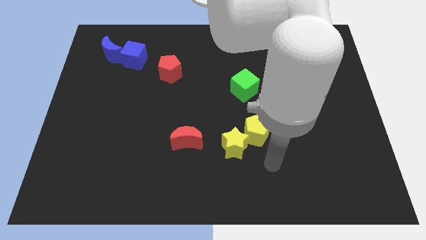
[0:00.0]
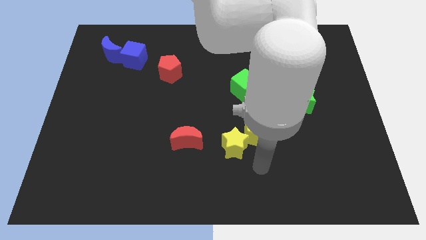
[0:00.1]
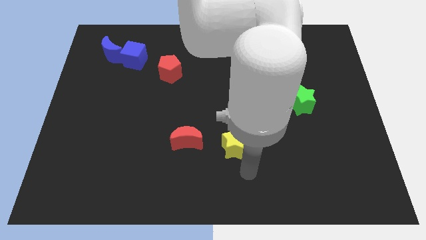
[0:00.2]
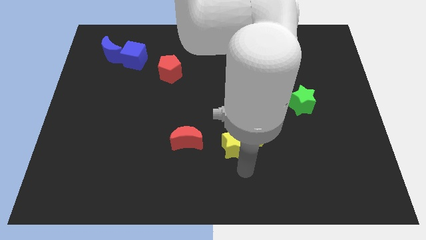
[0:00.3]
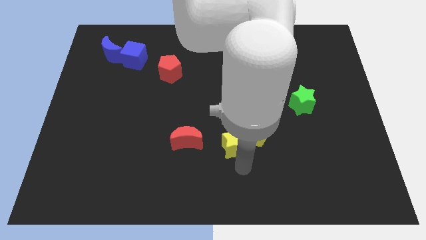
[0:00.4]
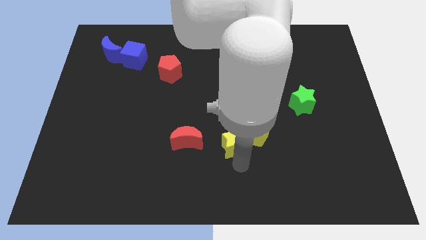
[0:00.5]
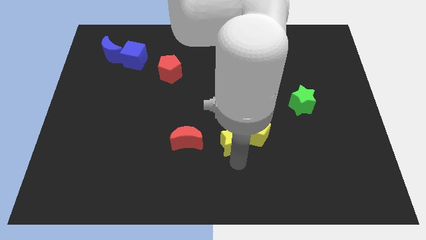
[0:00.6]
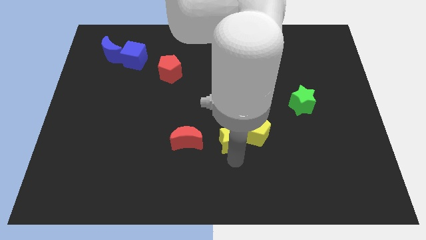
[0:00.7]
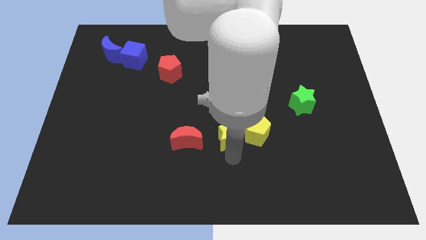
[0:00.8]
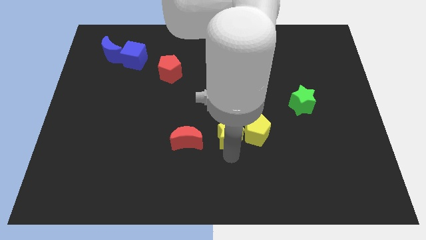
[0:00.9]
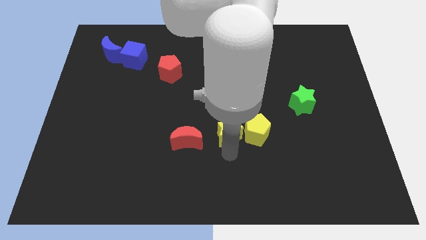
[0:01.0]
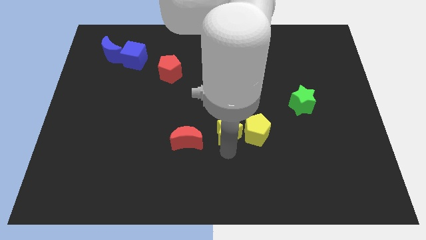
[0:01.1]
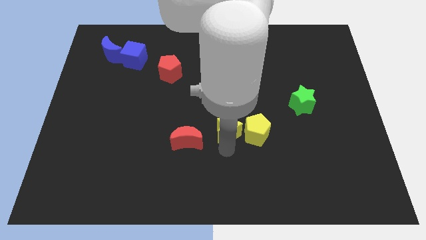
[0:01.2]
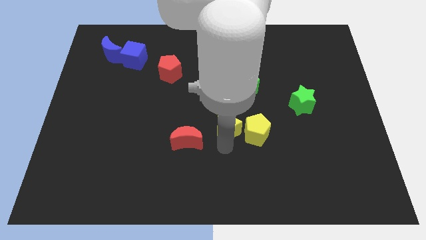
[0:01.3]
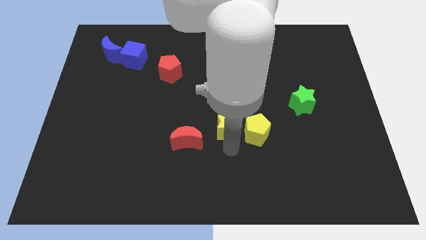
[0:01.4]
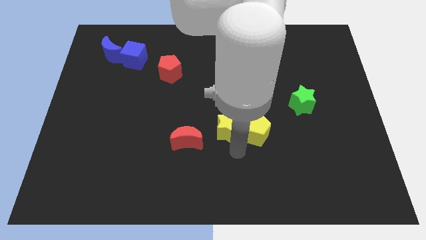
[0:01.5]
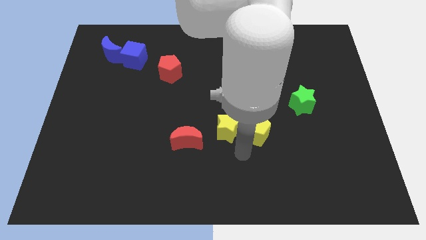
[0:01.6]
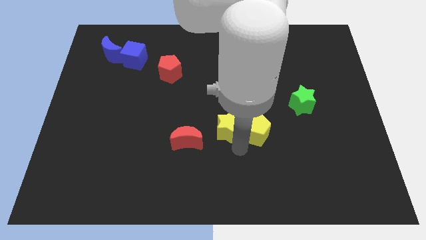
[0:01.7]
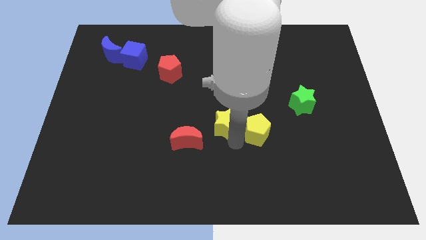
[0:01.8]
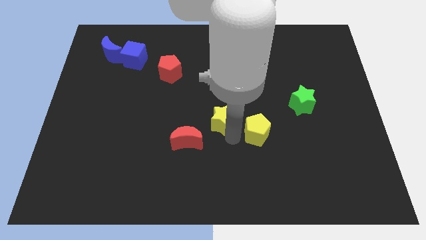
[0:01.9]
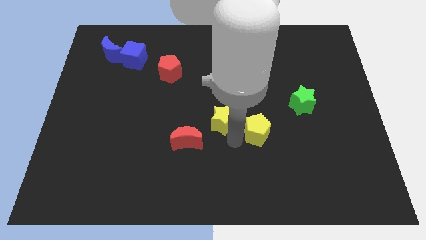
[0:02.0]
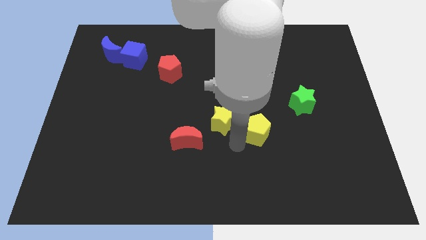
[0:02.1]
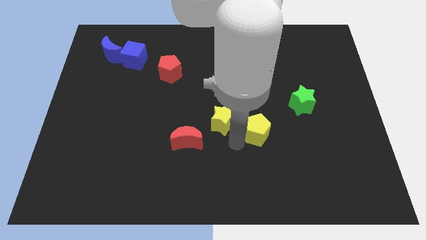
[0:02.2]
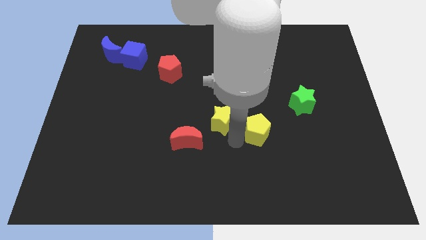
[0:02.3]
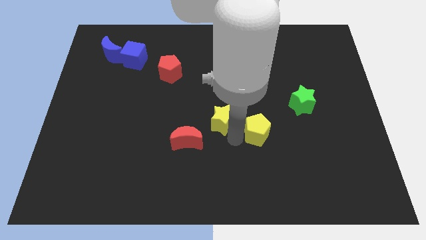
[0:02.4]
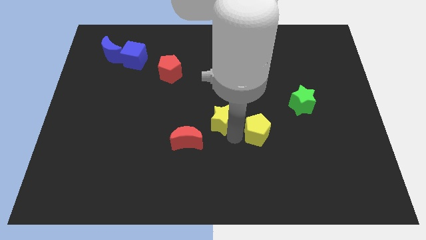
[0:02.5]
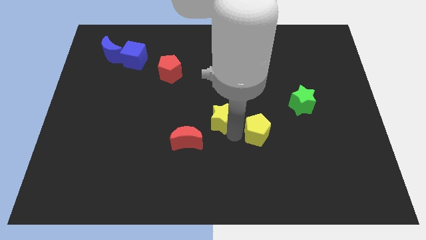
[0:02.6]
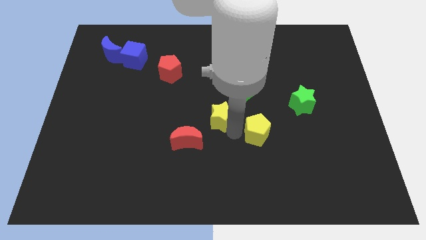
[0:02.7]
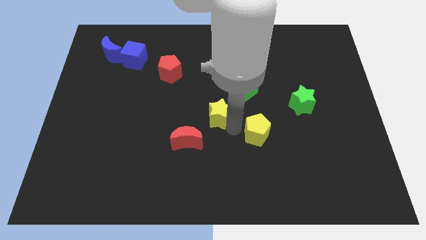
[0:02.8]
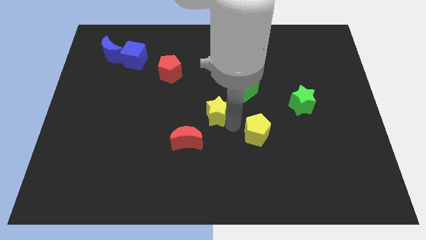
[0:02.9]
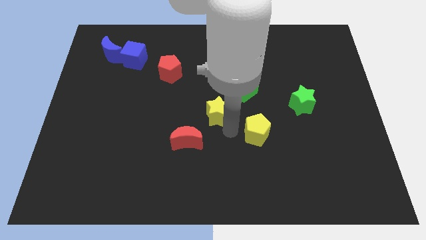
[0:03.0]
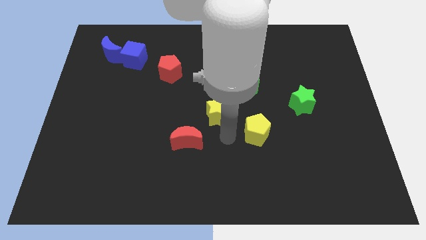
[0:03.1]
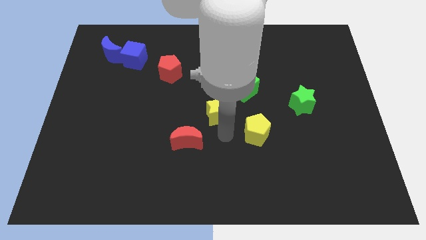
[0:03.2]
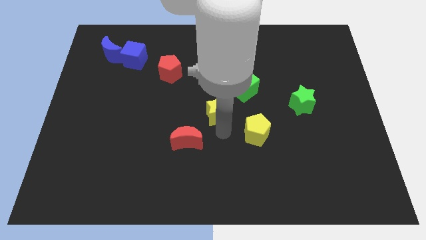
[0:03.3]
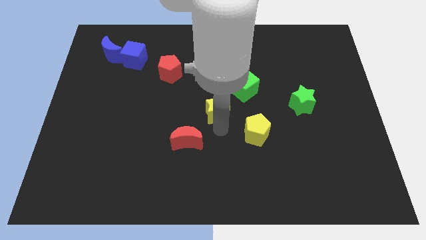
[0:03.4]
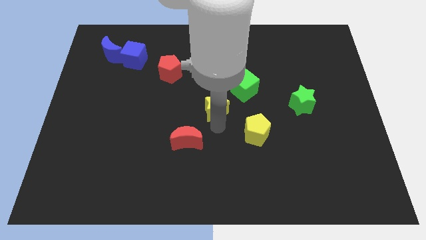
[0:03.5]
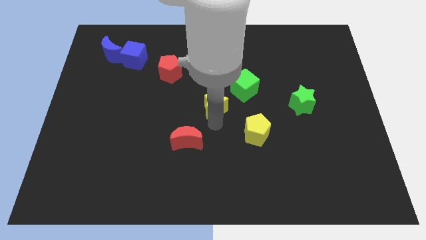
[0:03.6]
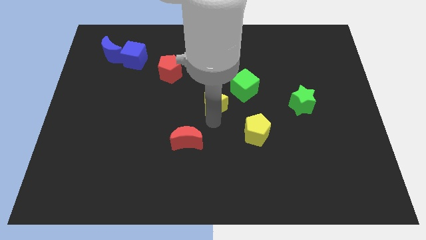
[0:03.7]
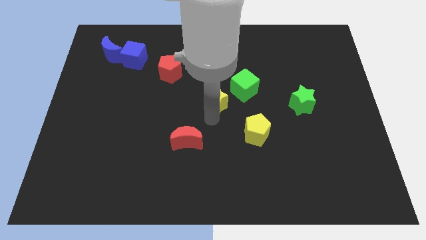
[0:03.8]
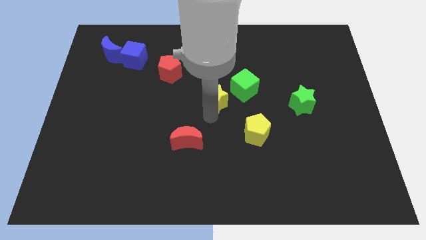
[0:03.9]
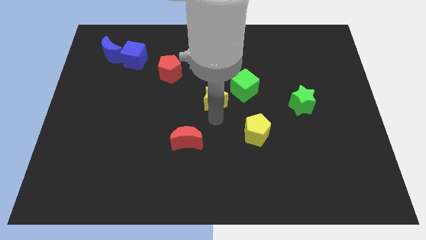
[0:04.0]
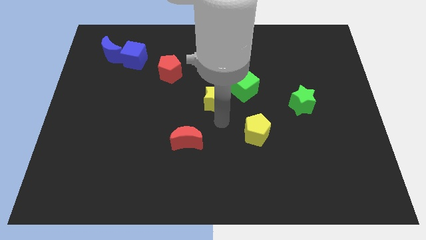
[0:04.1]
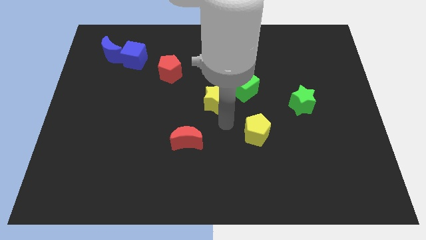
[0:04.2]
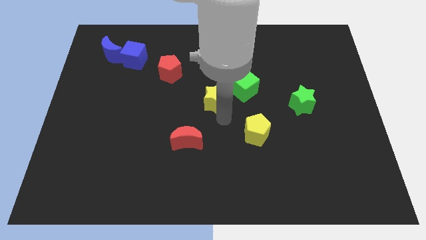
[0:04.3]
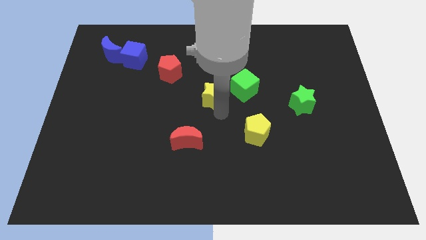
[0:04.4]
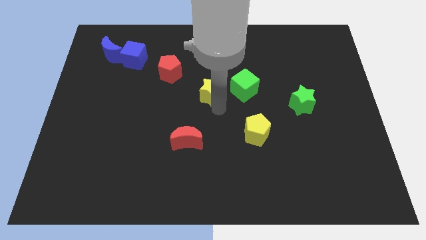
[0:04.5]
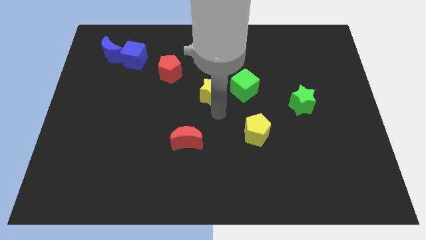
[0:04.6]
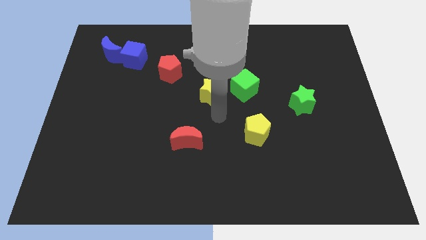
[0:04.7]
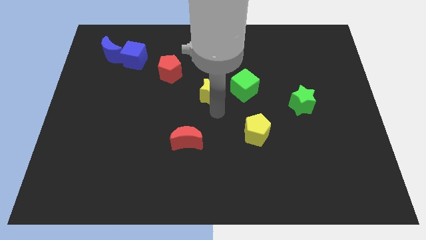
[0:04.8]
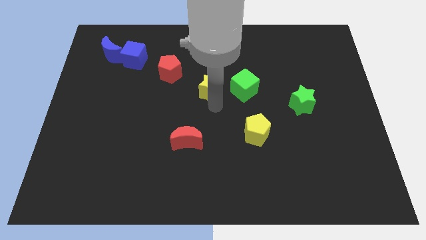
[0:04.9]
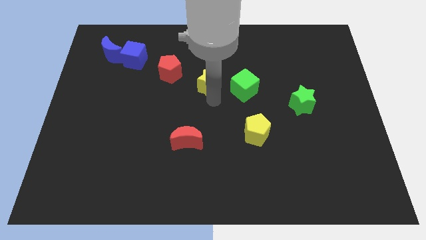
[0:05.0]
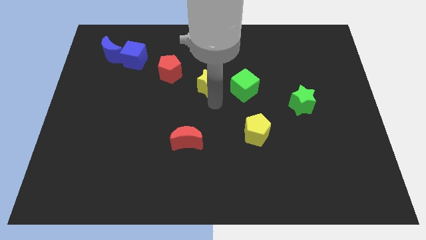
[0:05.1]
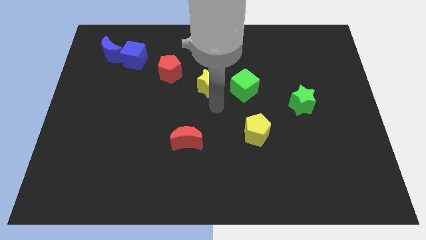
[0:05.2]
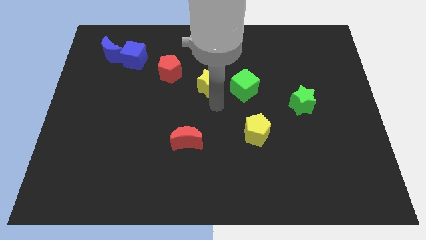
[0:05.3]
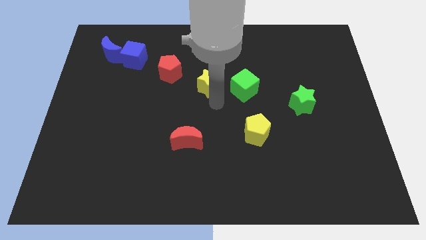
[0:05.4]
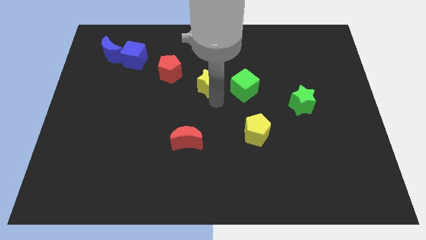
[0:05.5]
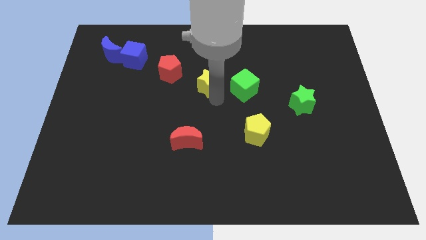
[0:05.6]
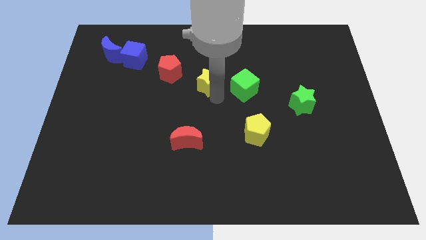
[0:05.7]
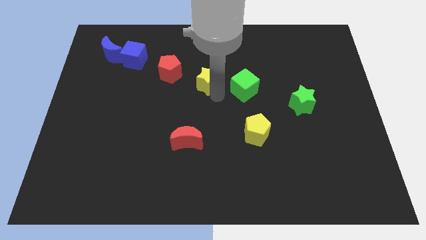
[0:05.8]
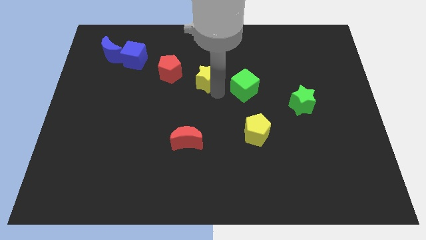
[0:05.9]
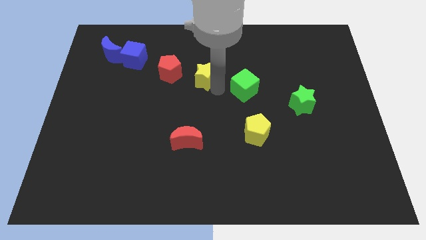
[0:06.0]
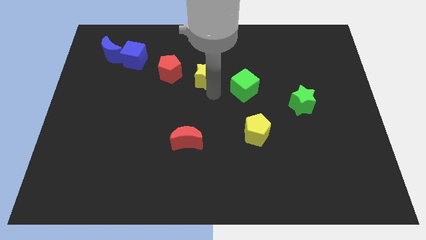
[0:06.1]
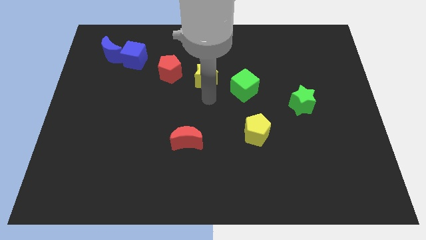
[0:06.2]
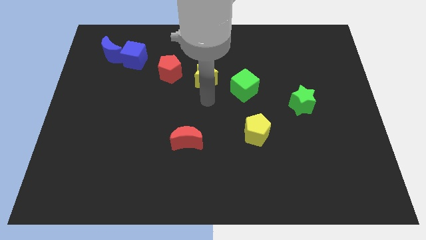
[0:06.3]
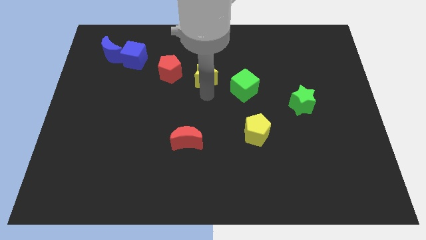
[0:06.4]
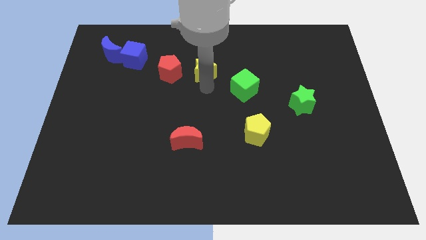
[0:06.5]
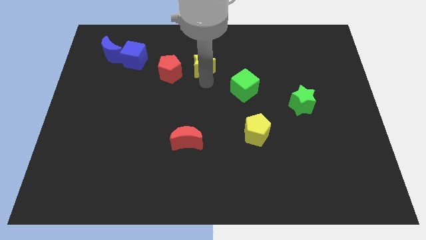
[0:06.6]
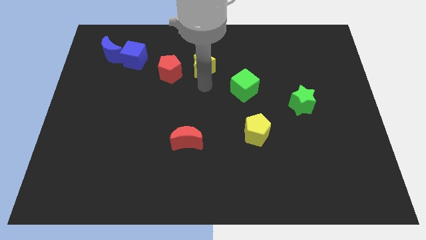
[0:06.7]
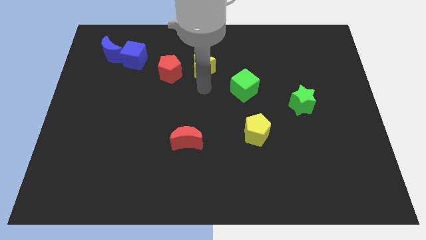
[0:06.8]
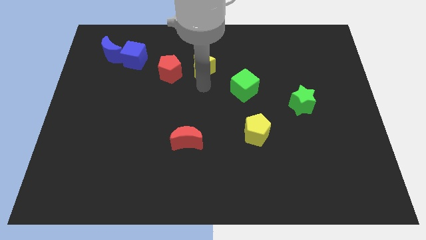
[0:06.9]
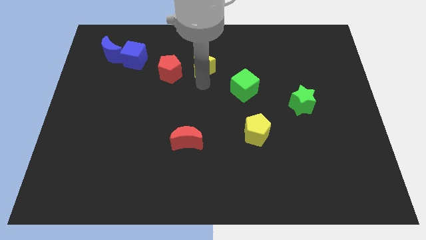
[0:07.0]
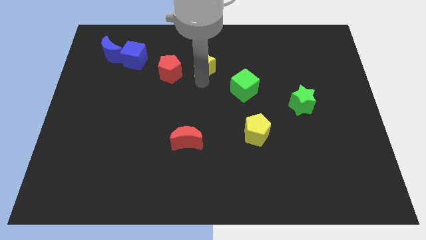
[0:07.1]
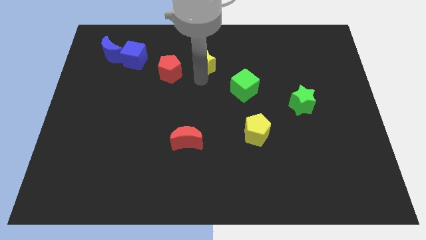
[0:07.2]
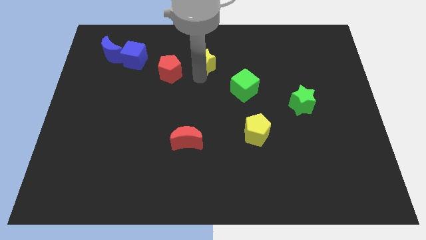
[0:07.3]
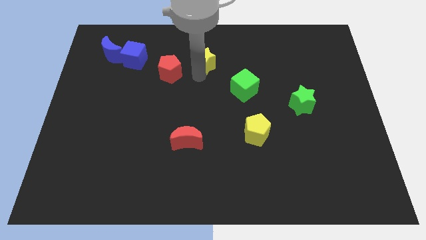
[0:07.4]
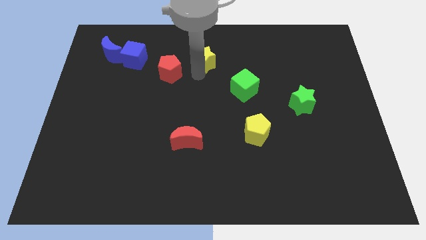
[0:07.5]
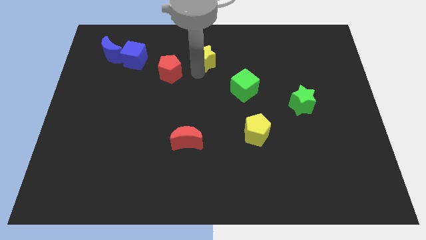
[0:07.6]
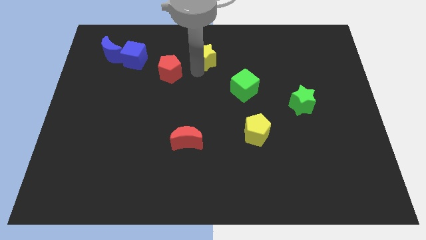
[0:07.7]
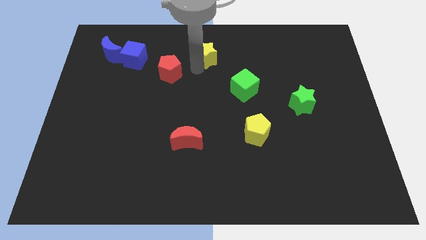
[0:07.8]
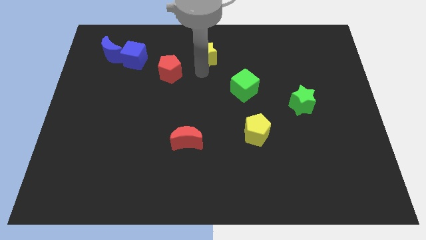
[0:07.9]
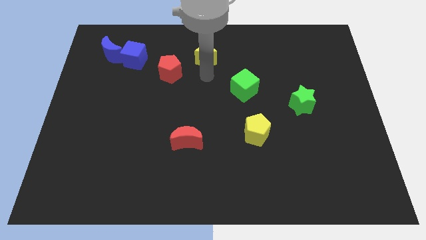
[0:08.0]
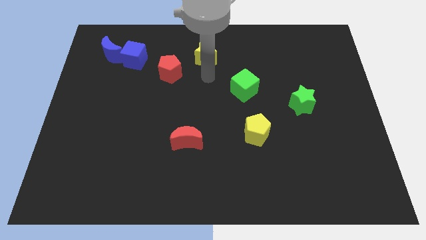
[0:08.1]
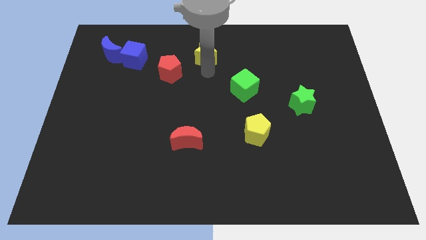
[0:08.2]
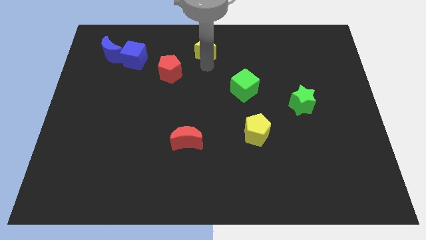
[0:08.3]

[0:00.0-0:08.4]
slide the yellow star to the top side
